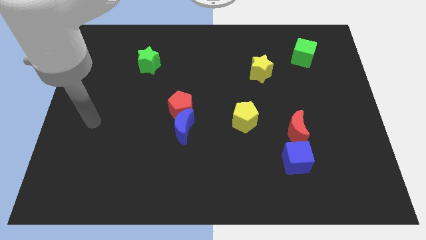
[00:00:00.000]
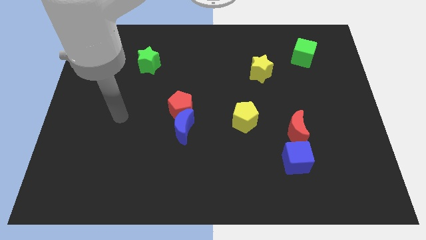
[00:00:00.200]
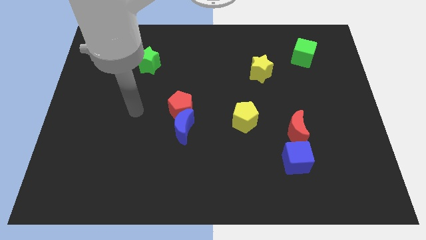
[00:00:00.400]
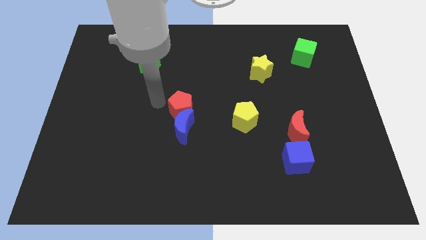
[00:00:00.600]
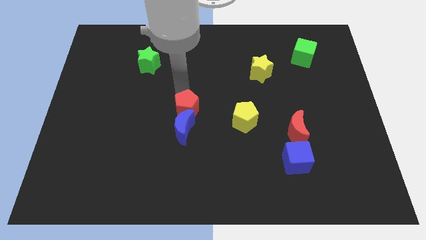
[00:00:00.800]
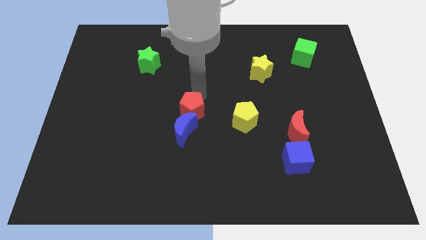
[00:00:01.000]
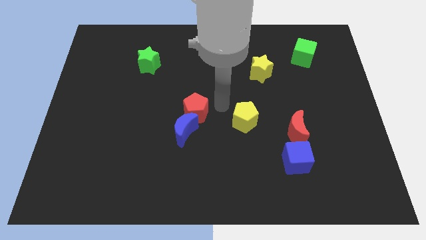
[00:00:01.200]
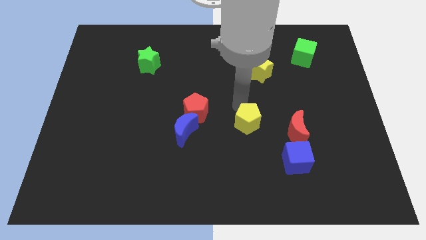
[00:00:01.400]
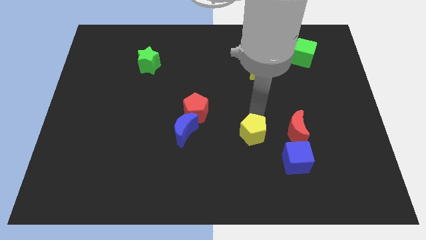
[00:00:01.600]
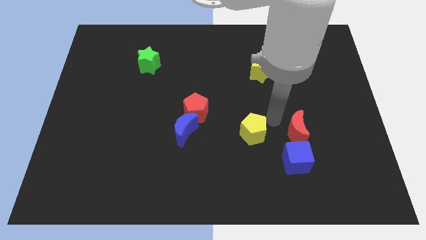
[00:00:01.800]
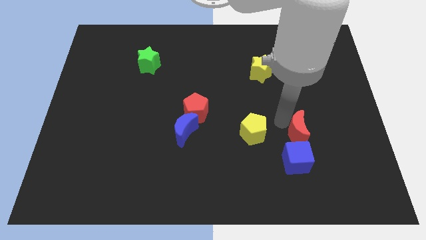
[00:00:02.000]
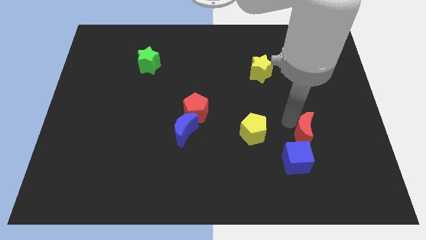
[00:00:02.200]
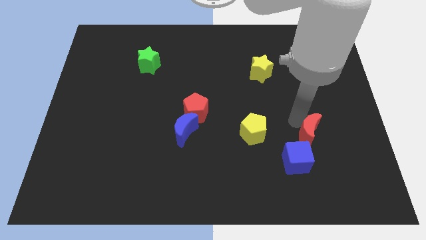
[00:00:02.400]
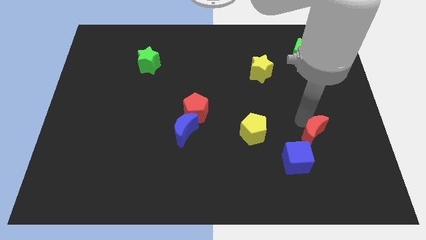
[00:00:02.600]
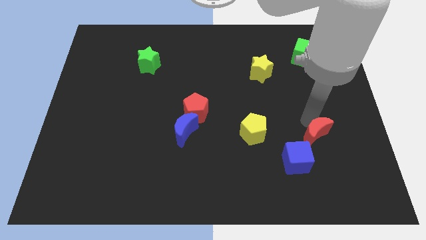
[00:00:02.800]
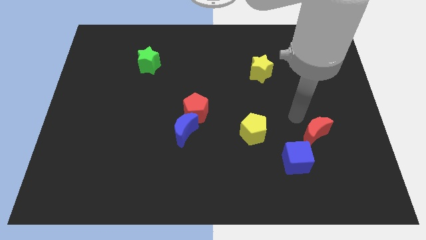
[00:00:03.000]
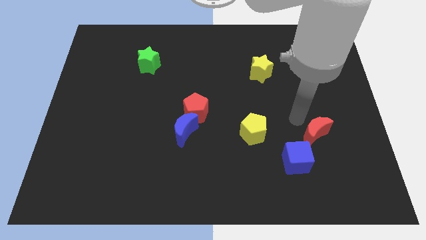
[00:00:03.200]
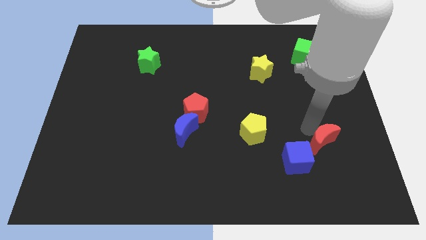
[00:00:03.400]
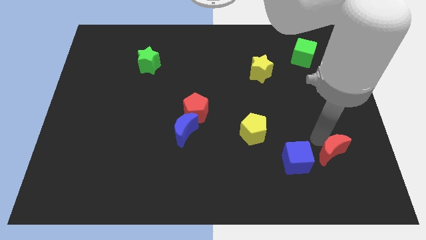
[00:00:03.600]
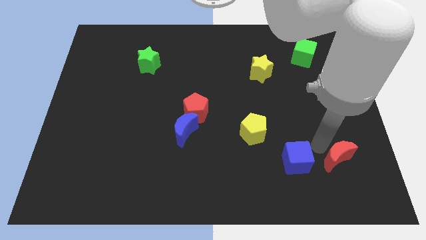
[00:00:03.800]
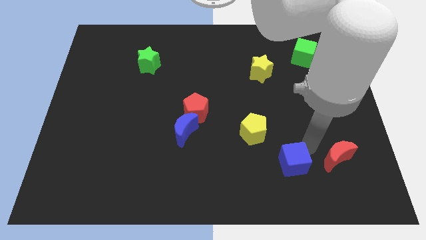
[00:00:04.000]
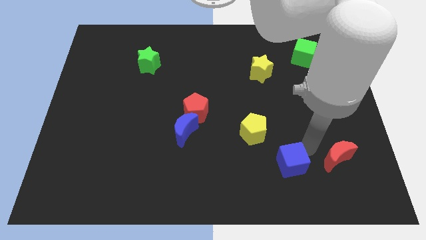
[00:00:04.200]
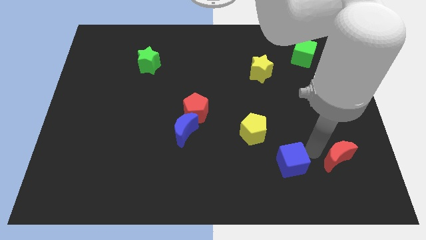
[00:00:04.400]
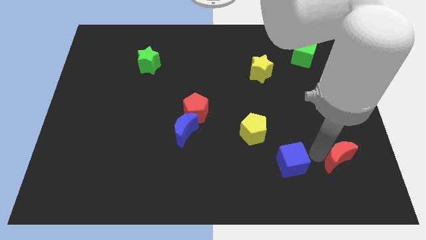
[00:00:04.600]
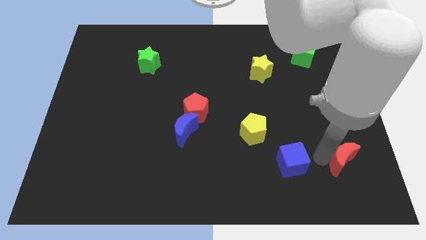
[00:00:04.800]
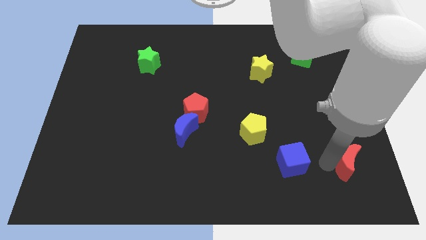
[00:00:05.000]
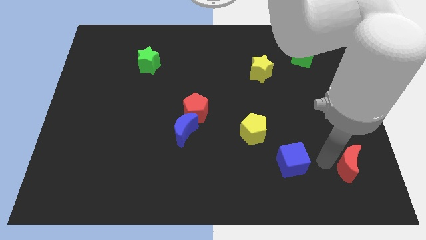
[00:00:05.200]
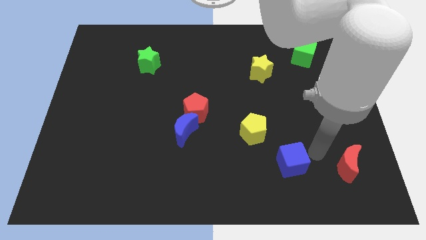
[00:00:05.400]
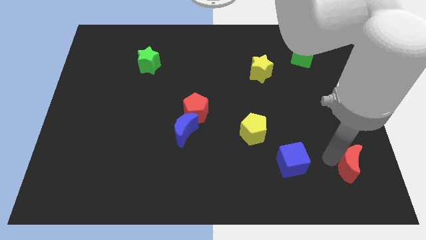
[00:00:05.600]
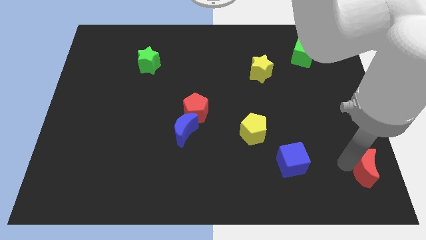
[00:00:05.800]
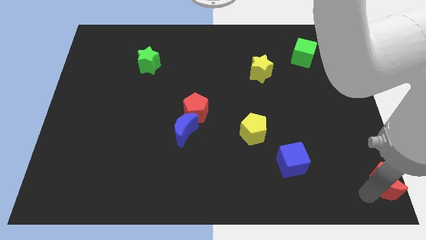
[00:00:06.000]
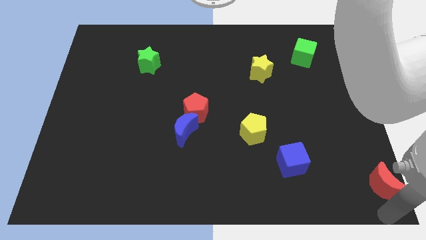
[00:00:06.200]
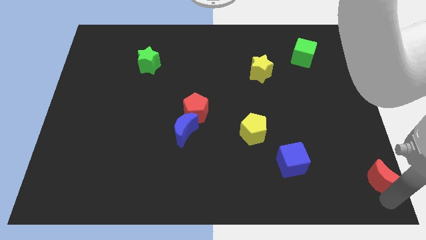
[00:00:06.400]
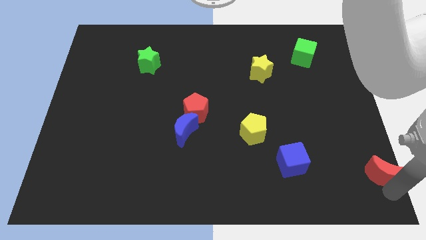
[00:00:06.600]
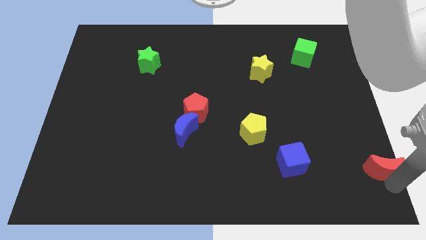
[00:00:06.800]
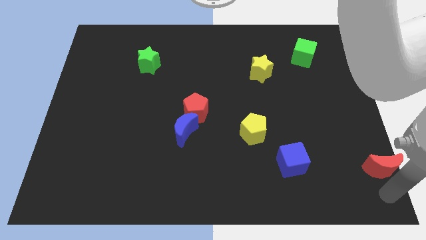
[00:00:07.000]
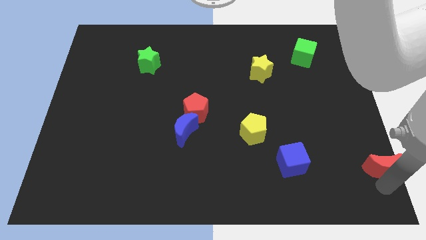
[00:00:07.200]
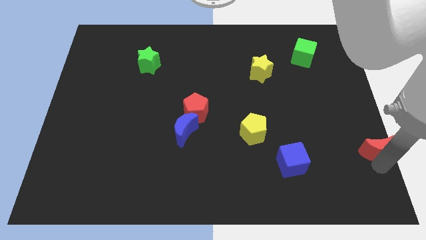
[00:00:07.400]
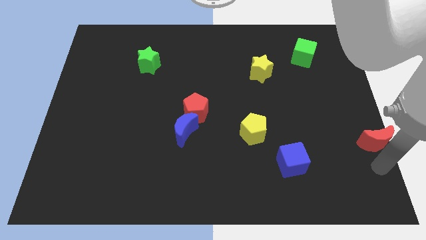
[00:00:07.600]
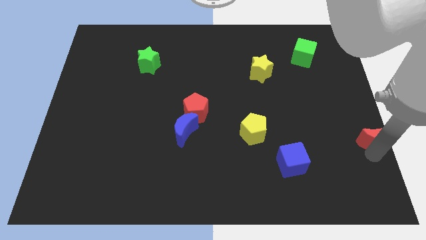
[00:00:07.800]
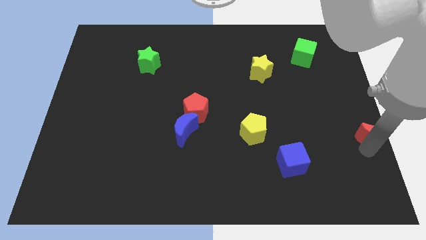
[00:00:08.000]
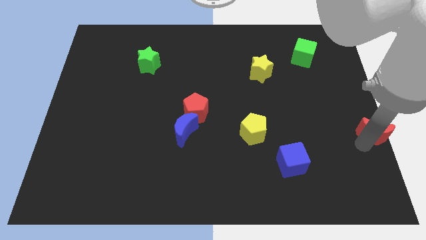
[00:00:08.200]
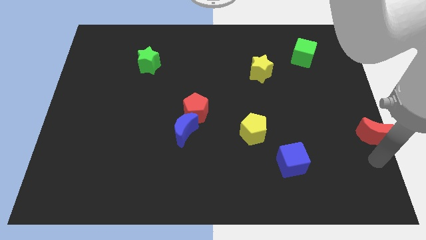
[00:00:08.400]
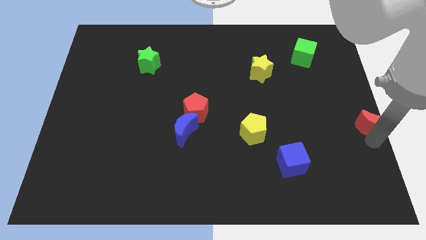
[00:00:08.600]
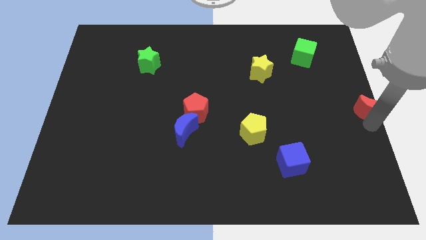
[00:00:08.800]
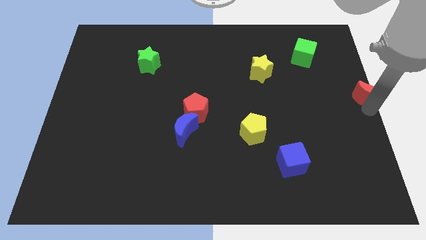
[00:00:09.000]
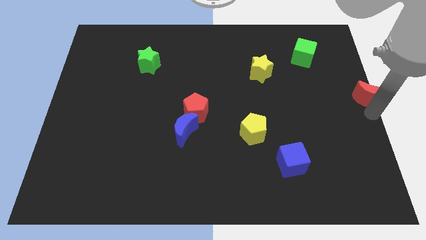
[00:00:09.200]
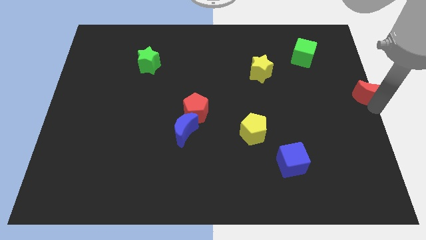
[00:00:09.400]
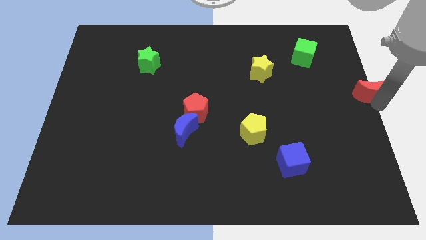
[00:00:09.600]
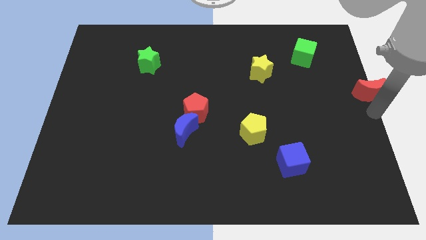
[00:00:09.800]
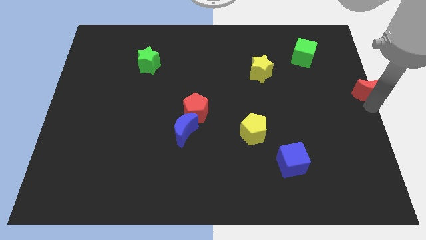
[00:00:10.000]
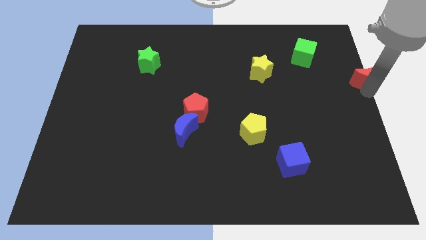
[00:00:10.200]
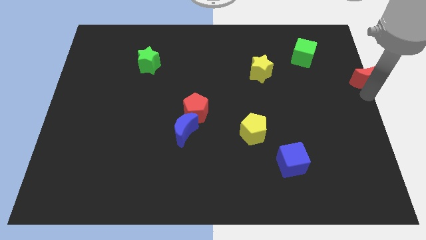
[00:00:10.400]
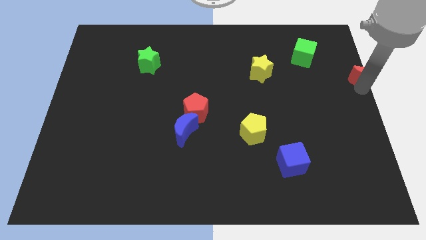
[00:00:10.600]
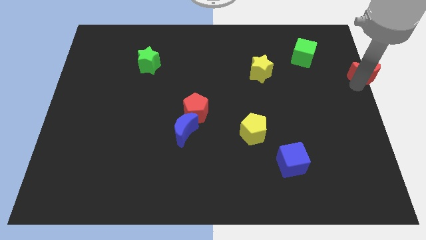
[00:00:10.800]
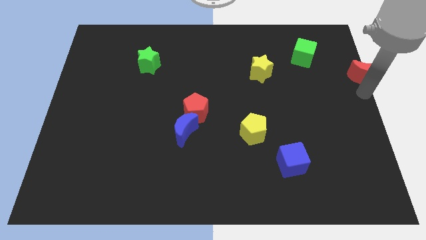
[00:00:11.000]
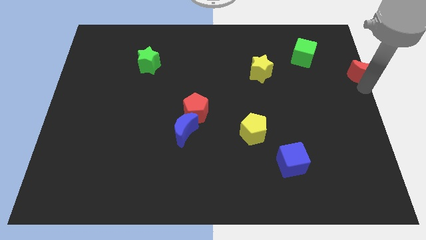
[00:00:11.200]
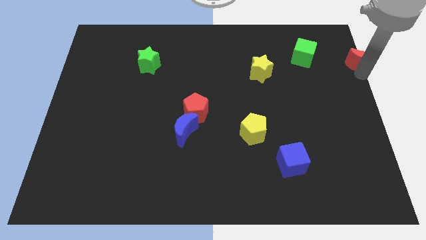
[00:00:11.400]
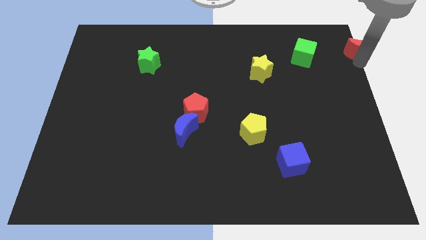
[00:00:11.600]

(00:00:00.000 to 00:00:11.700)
move the red moon to the upper right corner

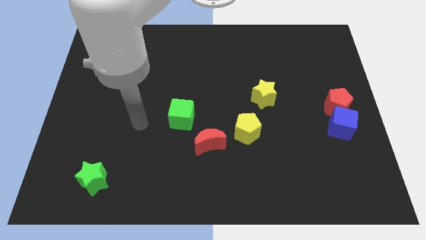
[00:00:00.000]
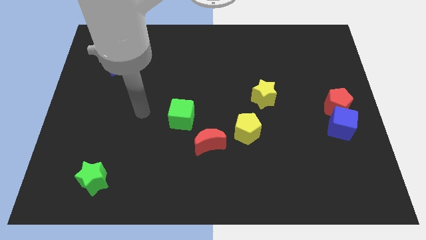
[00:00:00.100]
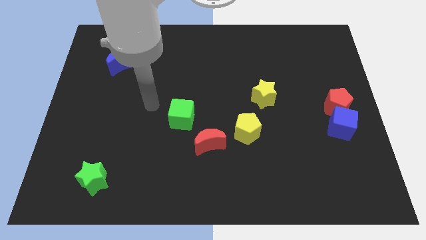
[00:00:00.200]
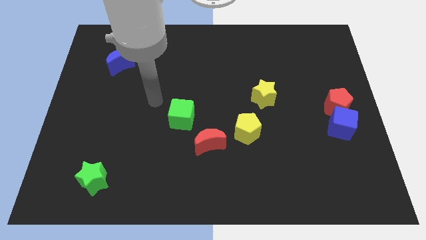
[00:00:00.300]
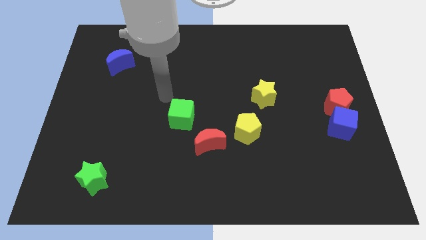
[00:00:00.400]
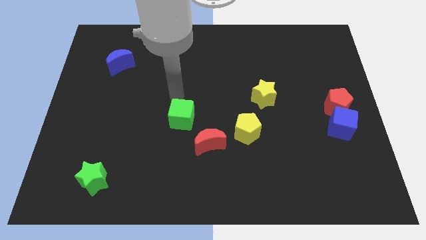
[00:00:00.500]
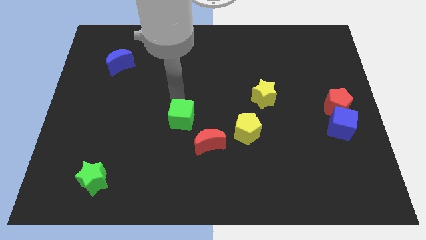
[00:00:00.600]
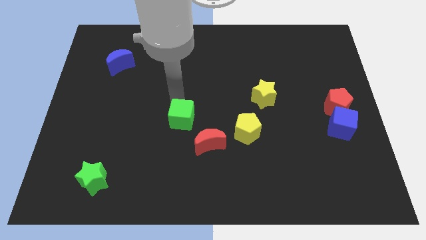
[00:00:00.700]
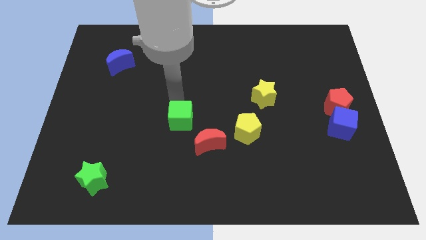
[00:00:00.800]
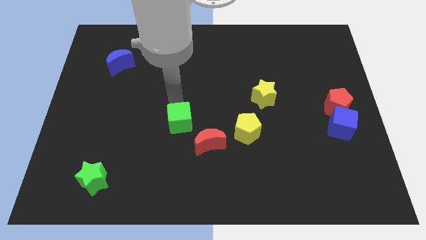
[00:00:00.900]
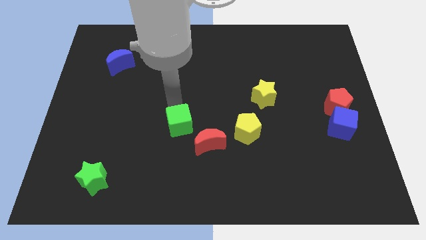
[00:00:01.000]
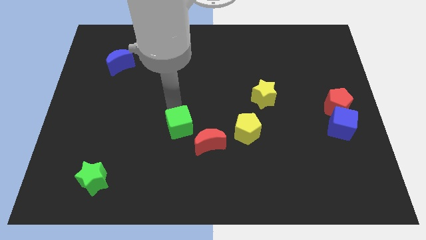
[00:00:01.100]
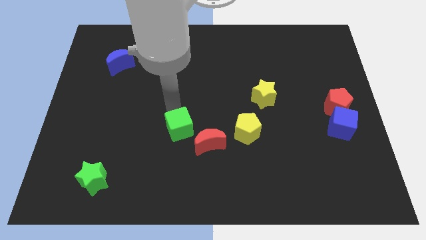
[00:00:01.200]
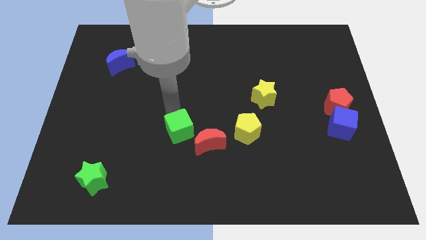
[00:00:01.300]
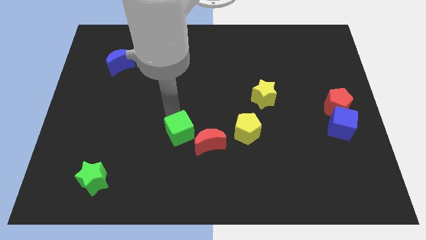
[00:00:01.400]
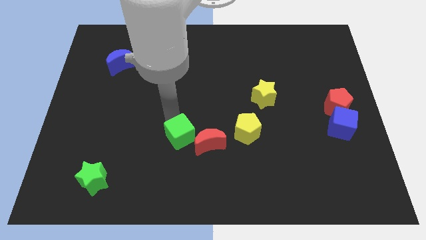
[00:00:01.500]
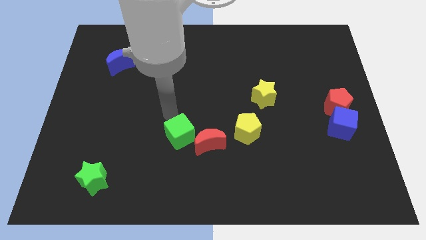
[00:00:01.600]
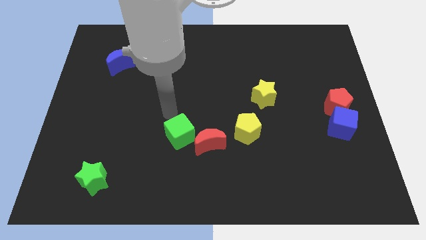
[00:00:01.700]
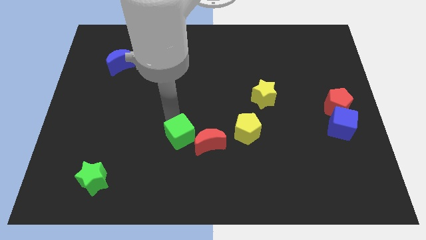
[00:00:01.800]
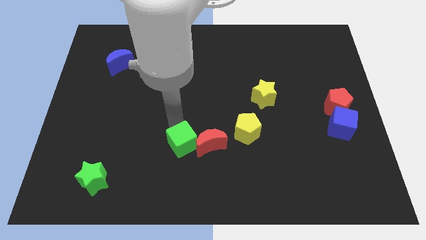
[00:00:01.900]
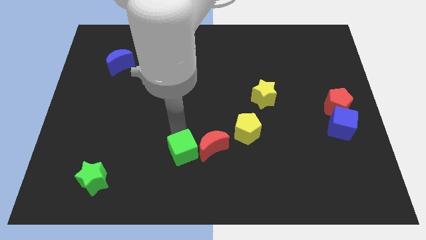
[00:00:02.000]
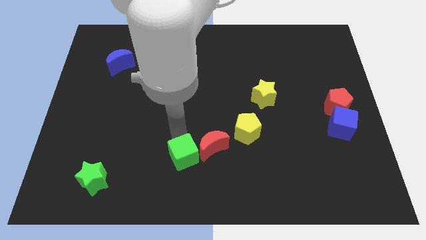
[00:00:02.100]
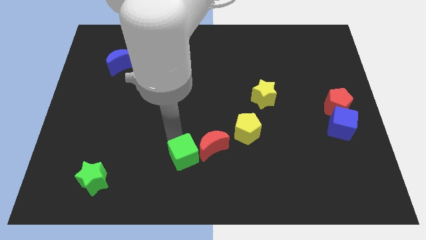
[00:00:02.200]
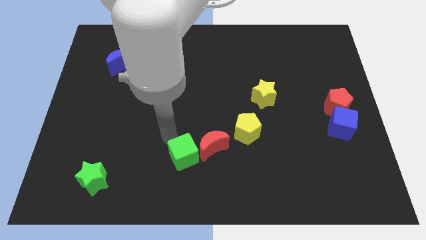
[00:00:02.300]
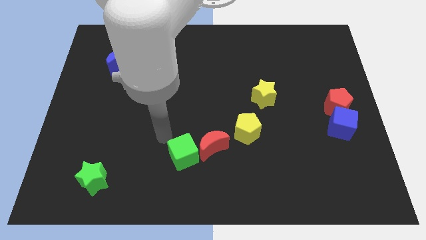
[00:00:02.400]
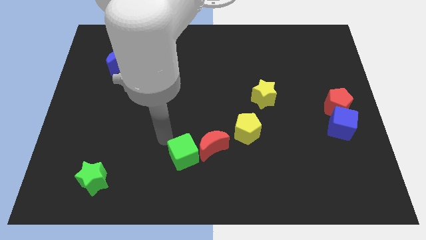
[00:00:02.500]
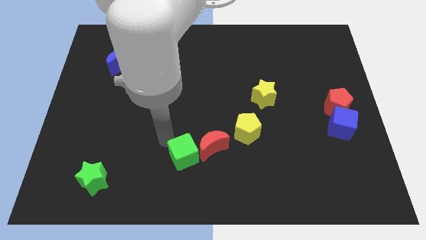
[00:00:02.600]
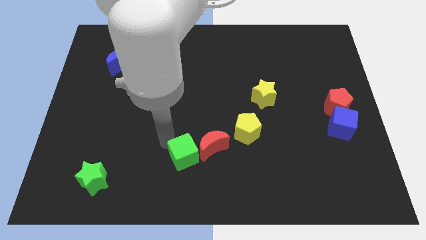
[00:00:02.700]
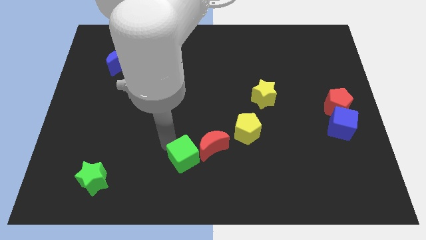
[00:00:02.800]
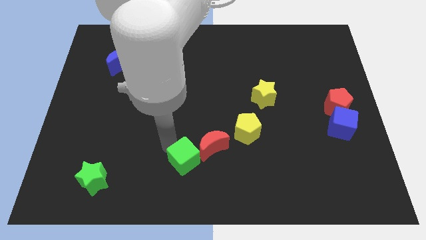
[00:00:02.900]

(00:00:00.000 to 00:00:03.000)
slide the green cube to the bottom side
